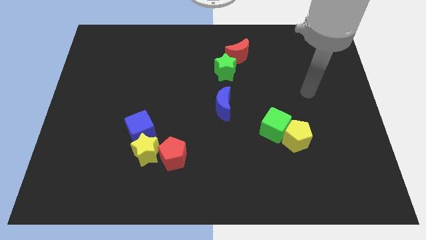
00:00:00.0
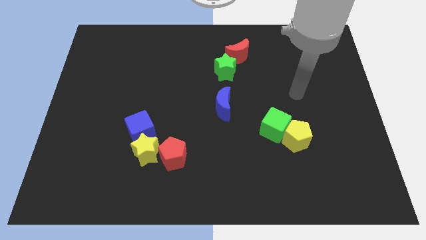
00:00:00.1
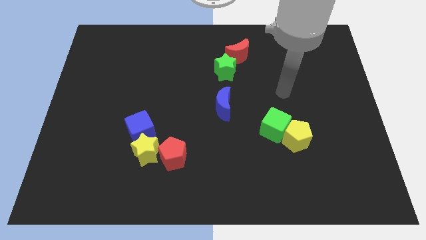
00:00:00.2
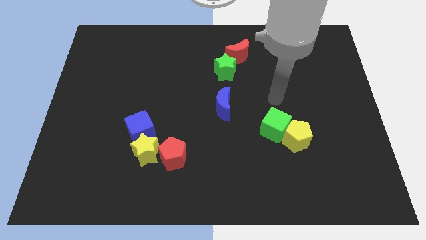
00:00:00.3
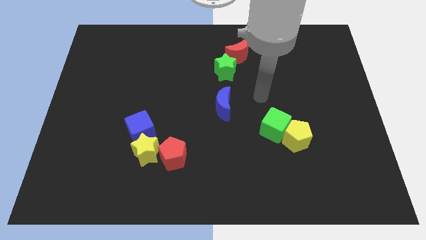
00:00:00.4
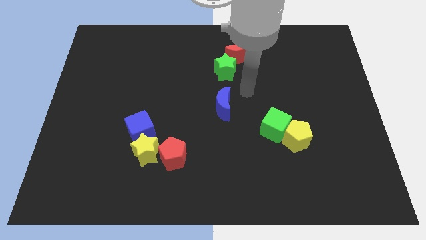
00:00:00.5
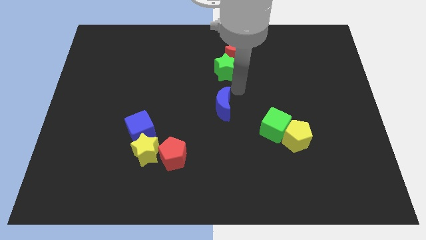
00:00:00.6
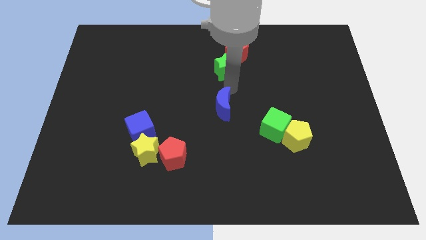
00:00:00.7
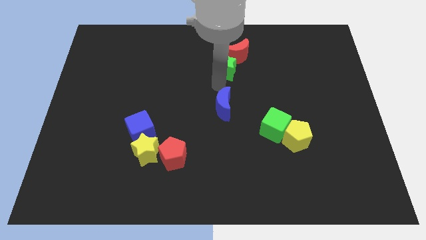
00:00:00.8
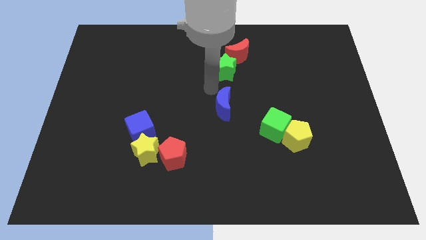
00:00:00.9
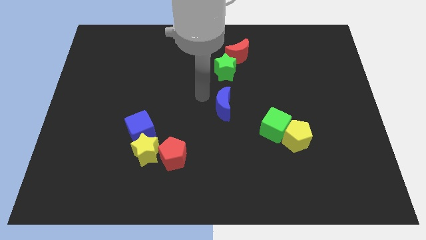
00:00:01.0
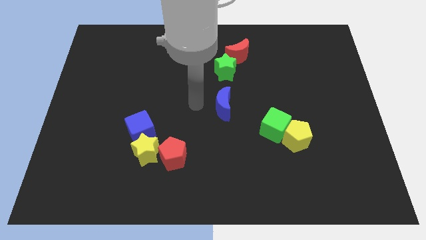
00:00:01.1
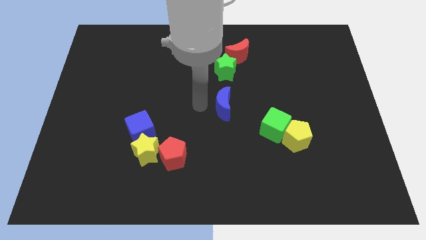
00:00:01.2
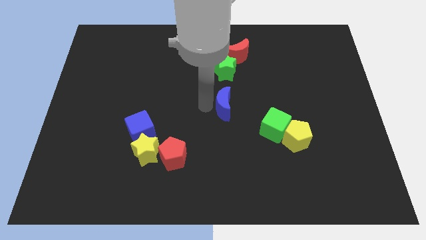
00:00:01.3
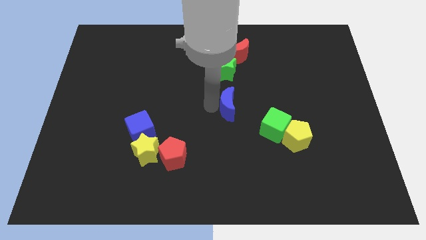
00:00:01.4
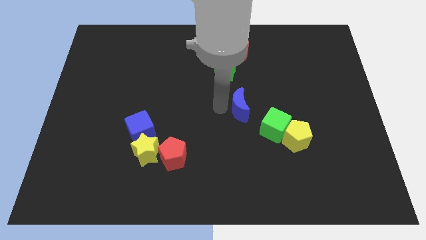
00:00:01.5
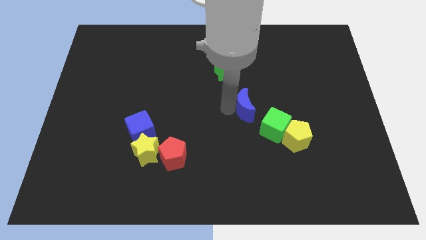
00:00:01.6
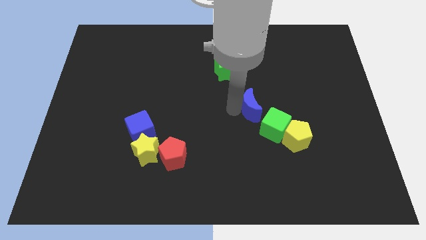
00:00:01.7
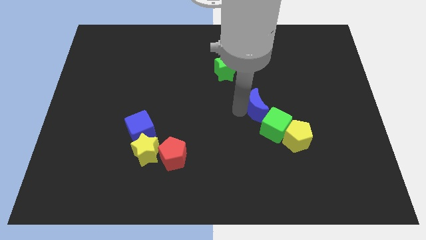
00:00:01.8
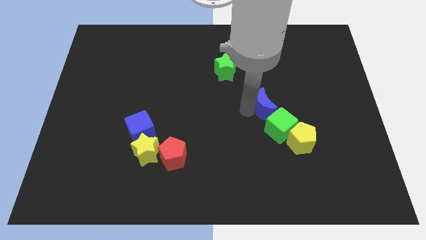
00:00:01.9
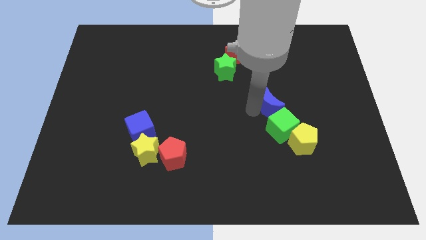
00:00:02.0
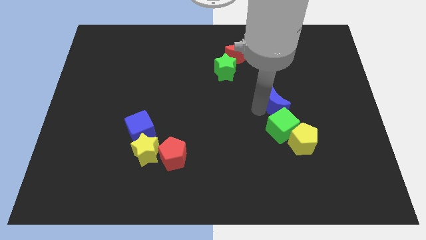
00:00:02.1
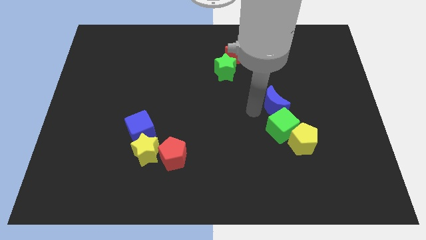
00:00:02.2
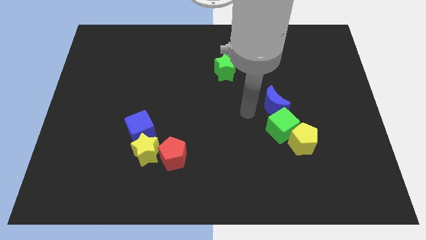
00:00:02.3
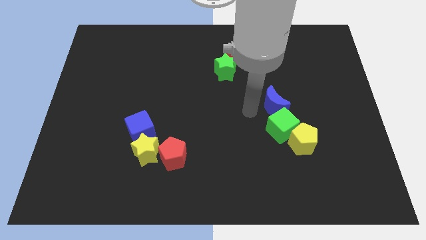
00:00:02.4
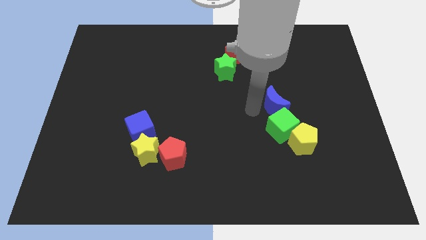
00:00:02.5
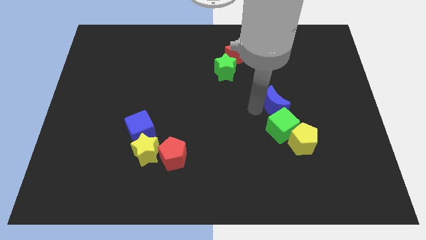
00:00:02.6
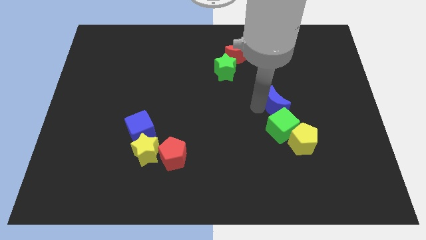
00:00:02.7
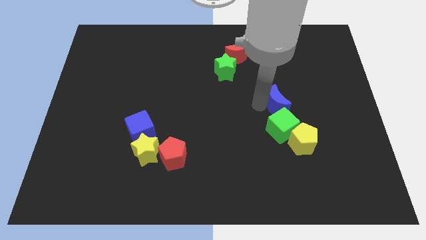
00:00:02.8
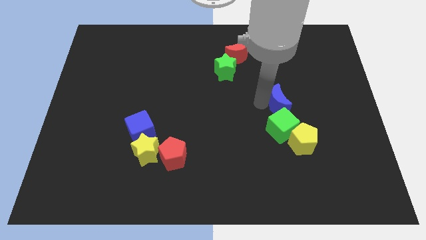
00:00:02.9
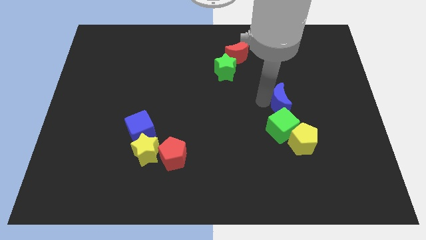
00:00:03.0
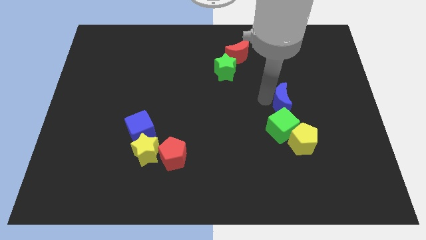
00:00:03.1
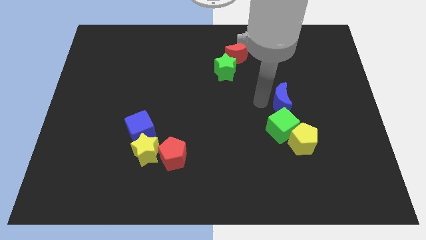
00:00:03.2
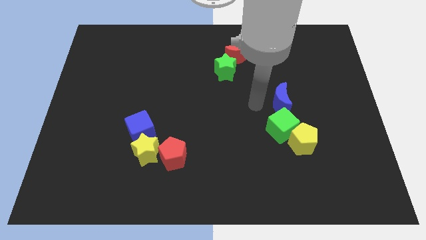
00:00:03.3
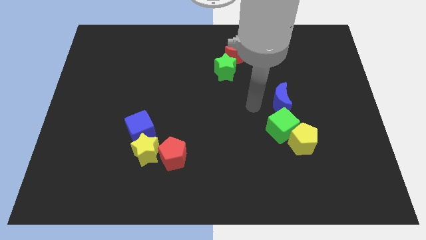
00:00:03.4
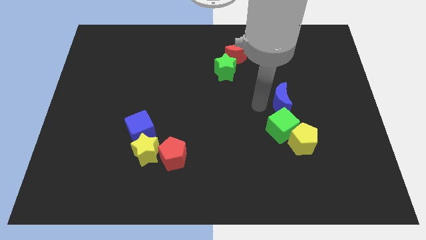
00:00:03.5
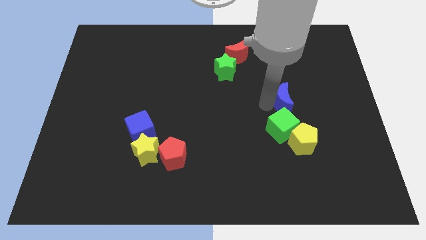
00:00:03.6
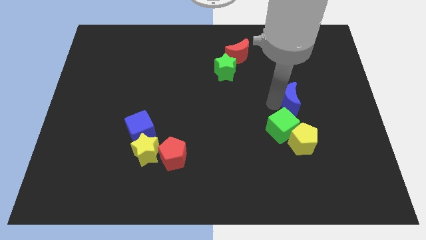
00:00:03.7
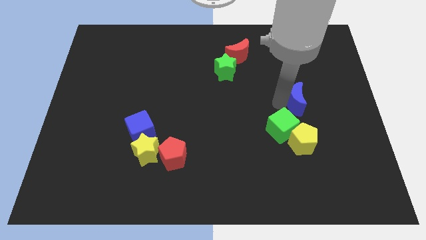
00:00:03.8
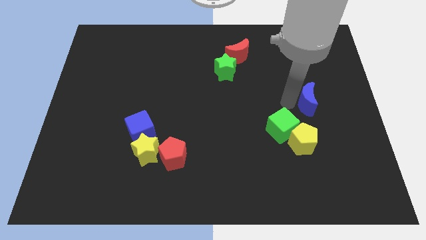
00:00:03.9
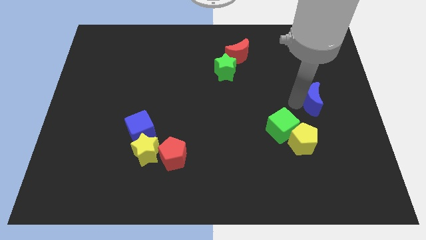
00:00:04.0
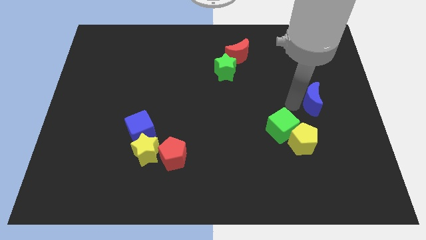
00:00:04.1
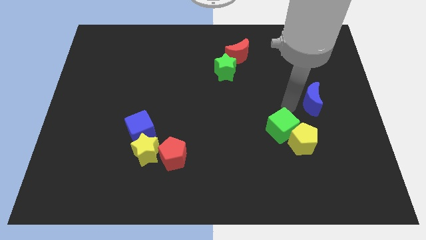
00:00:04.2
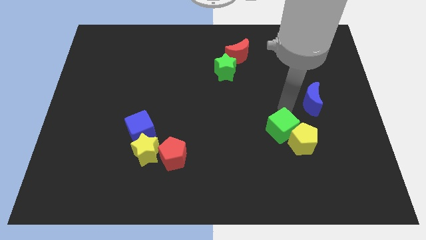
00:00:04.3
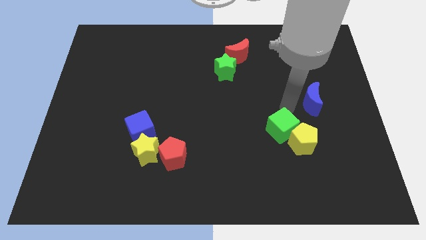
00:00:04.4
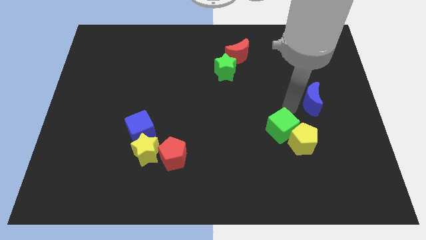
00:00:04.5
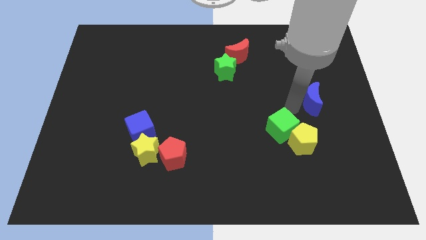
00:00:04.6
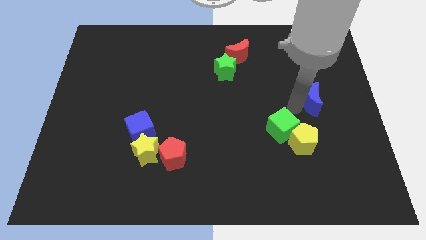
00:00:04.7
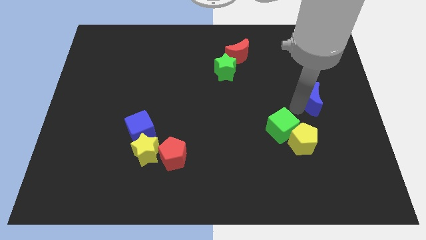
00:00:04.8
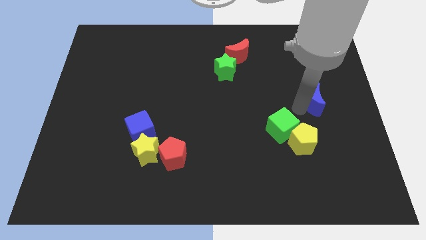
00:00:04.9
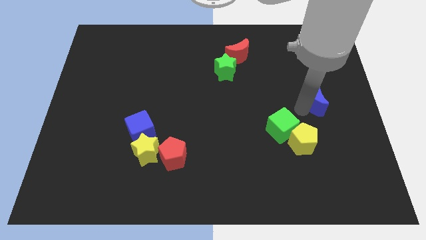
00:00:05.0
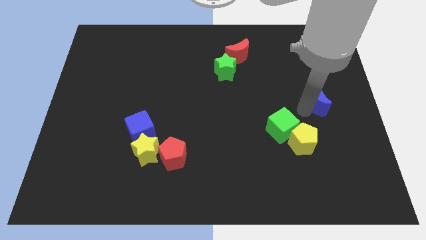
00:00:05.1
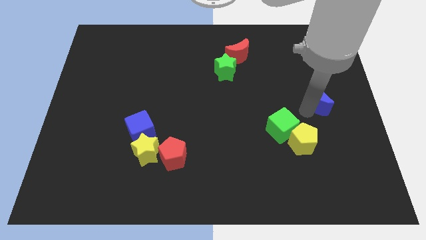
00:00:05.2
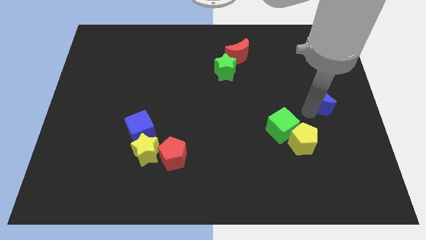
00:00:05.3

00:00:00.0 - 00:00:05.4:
put the blue moon to the right side

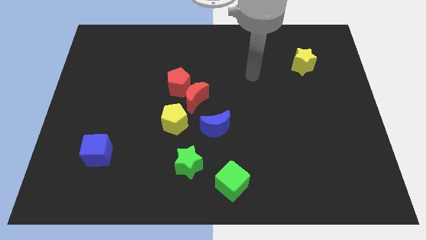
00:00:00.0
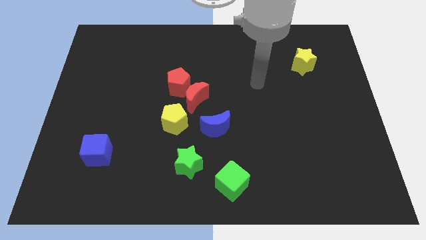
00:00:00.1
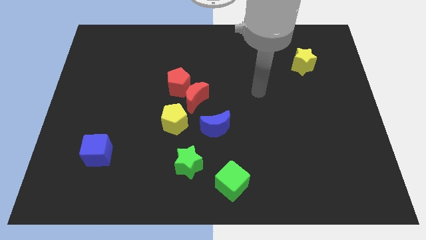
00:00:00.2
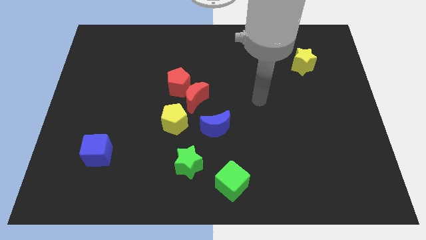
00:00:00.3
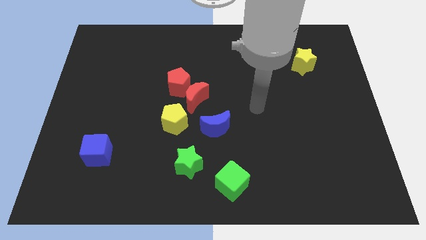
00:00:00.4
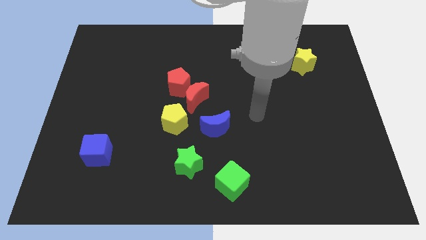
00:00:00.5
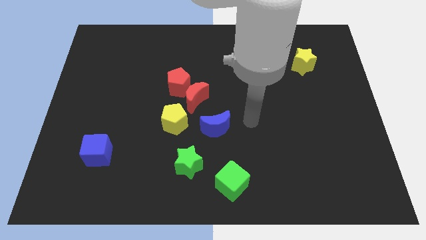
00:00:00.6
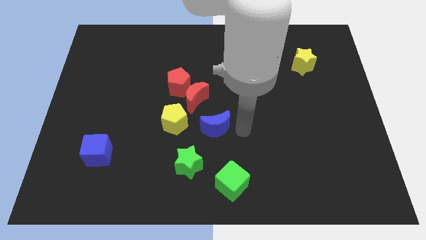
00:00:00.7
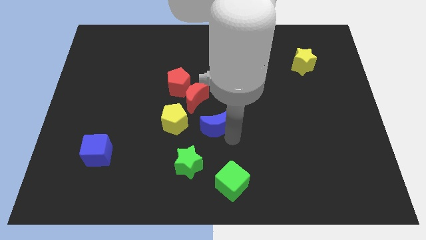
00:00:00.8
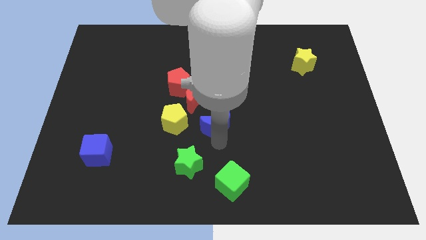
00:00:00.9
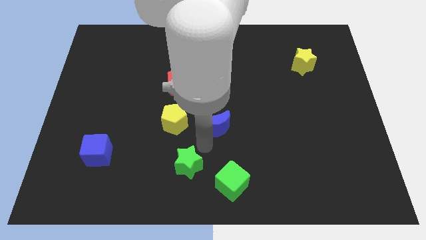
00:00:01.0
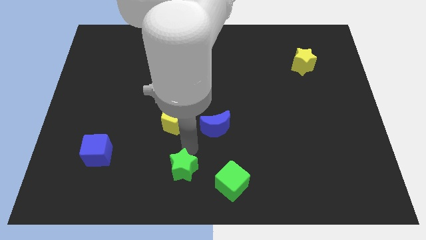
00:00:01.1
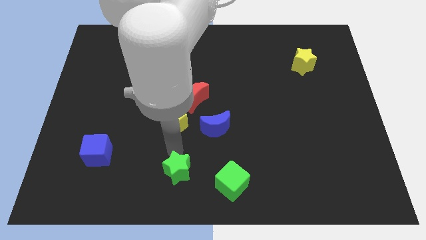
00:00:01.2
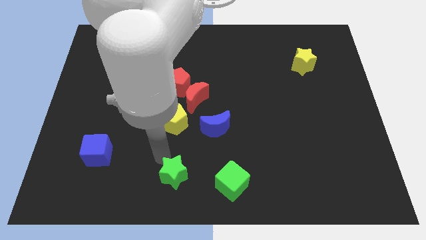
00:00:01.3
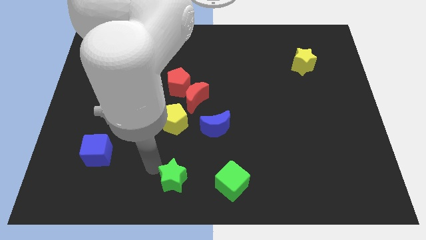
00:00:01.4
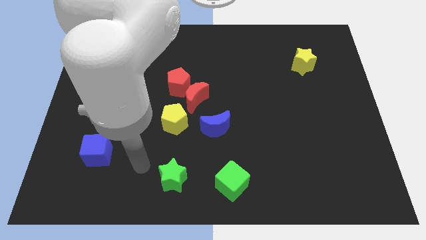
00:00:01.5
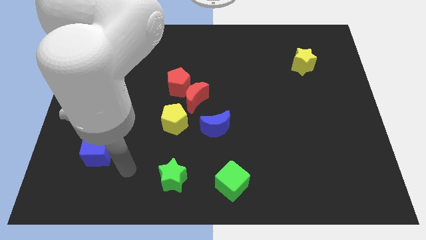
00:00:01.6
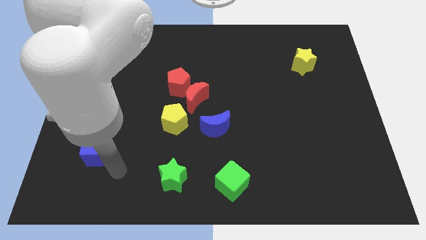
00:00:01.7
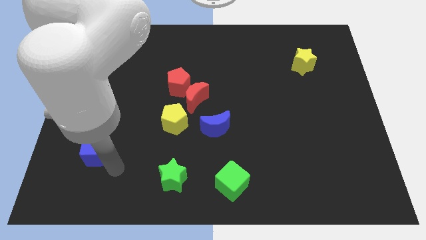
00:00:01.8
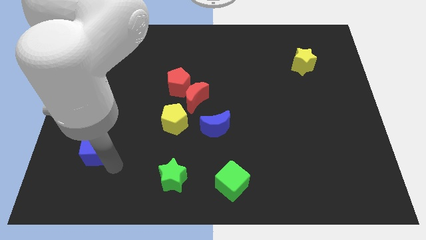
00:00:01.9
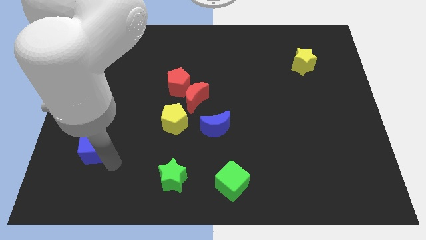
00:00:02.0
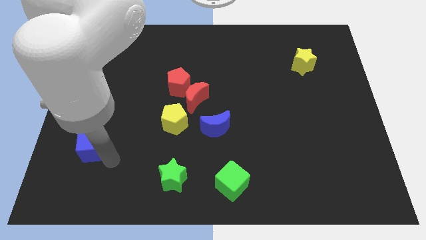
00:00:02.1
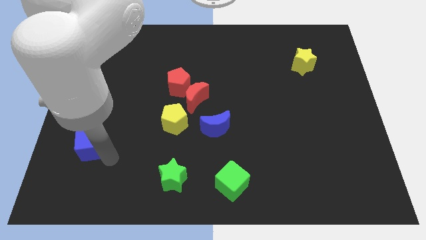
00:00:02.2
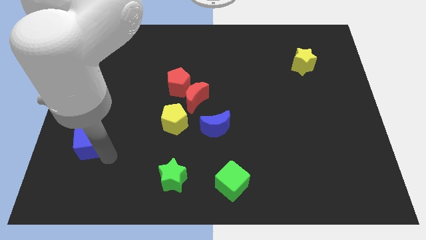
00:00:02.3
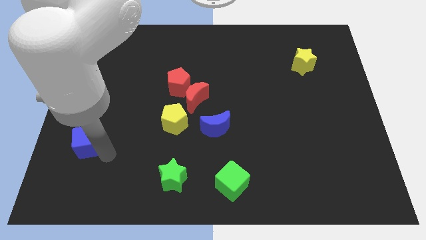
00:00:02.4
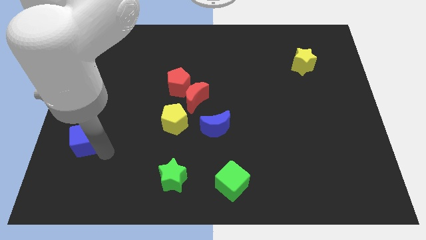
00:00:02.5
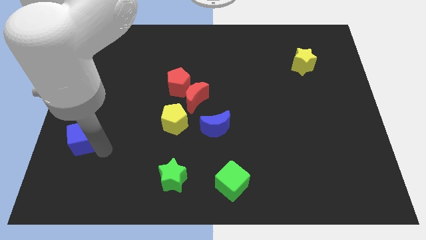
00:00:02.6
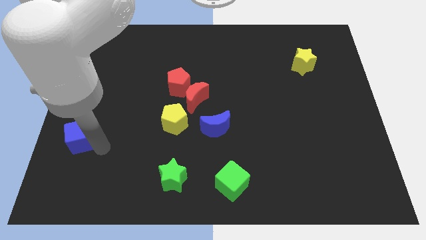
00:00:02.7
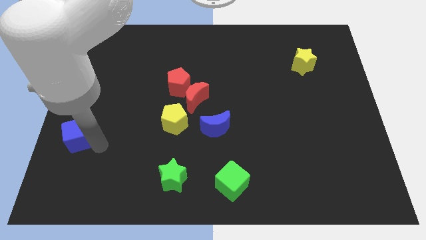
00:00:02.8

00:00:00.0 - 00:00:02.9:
move the blue cube to the left side
